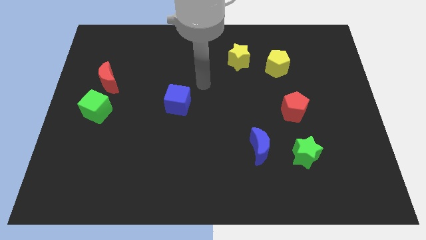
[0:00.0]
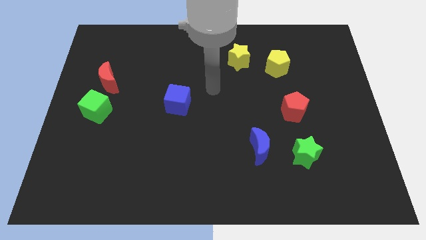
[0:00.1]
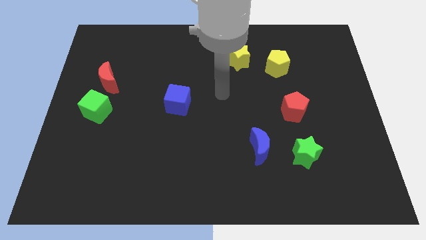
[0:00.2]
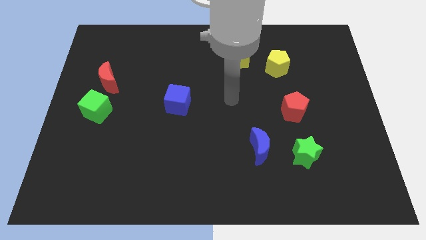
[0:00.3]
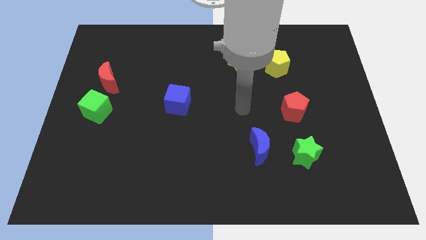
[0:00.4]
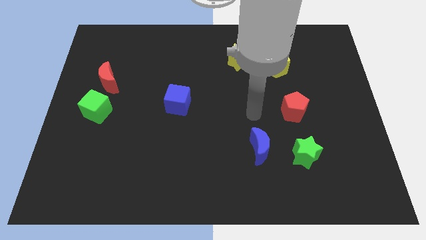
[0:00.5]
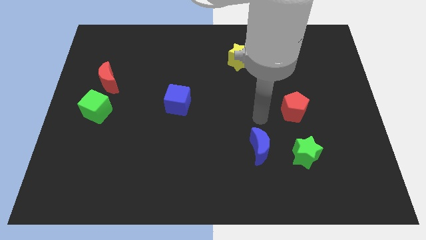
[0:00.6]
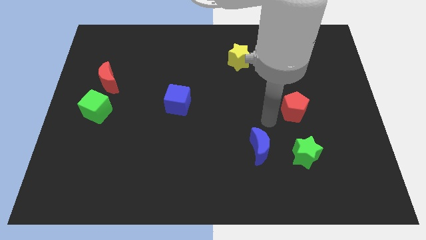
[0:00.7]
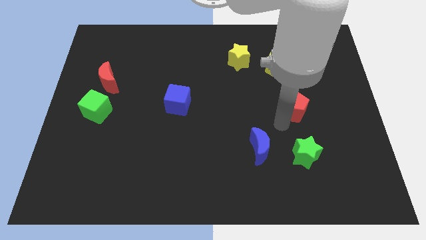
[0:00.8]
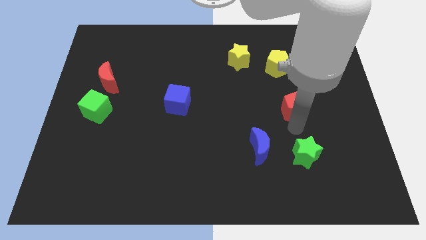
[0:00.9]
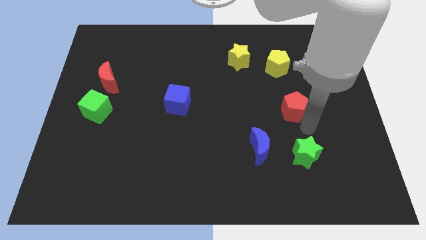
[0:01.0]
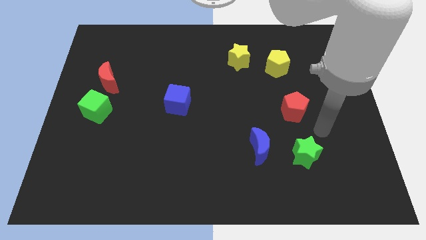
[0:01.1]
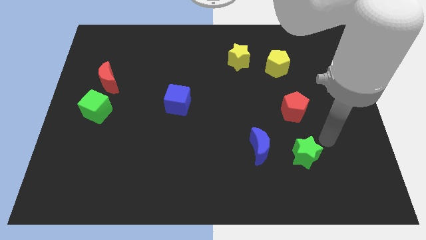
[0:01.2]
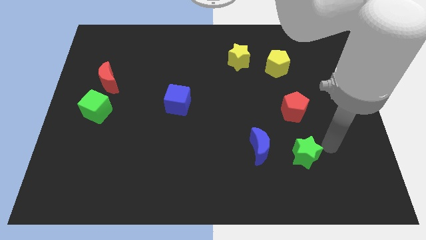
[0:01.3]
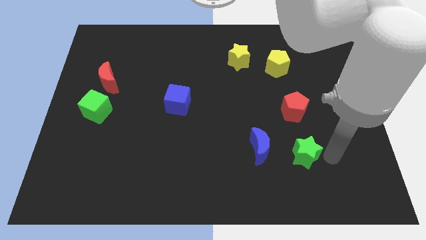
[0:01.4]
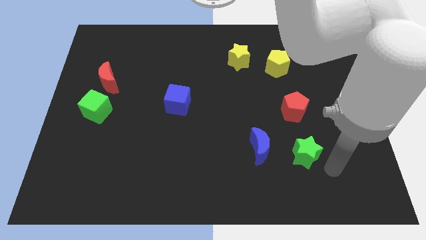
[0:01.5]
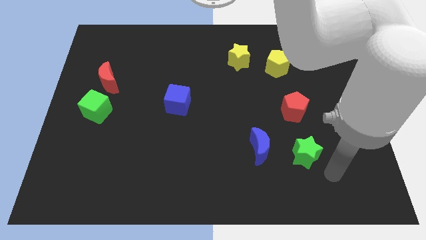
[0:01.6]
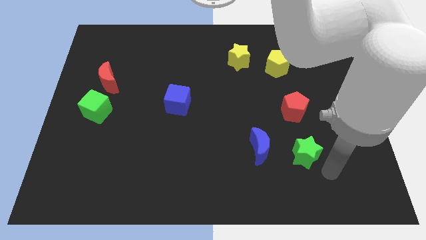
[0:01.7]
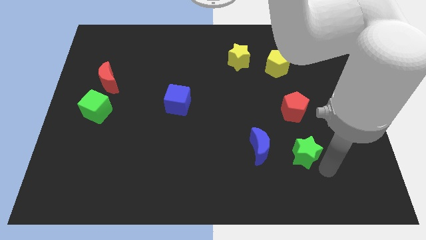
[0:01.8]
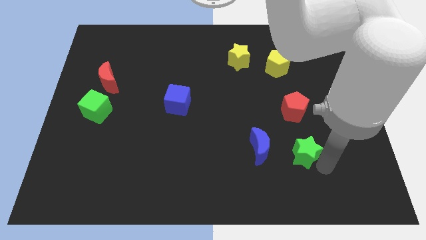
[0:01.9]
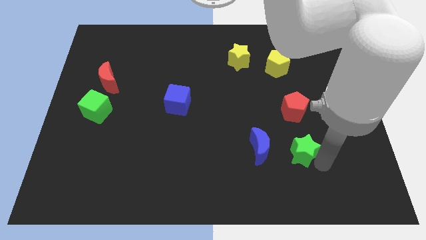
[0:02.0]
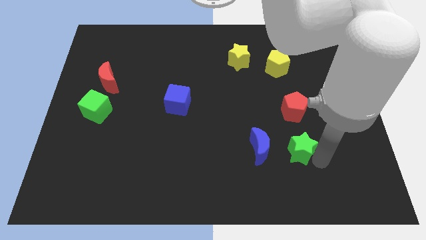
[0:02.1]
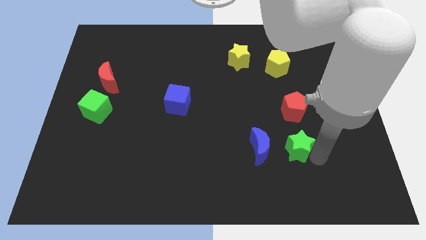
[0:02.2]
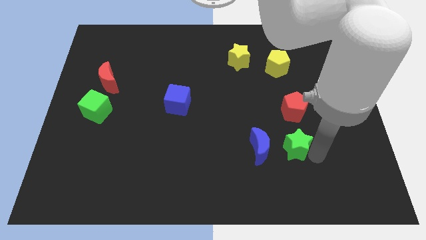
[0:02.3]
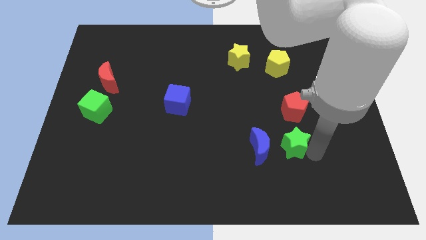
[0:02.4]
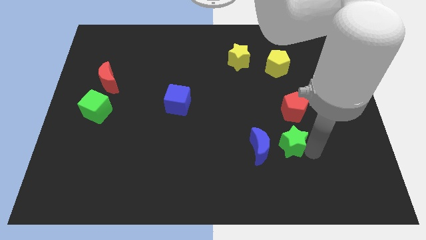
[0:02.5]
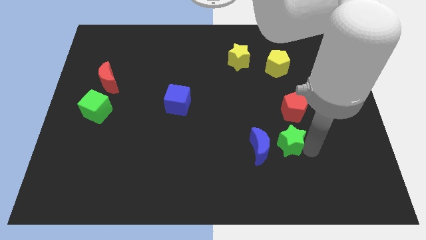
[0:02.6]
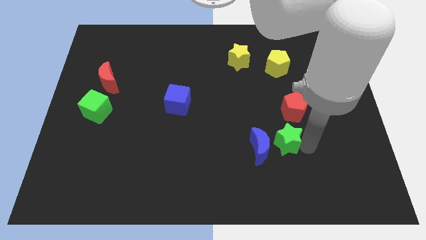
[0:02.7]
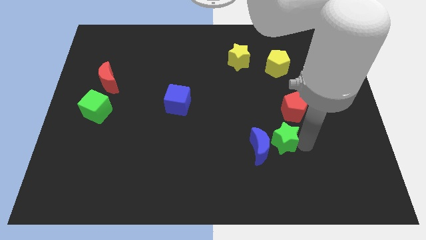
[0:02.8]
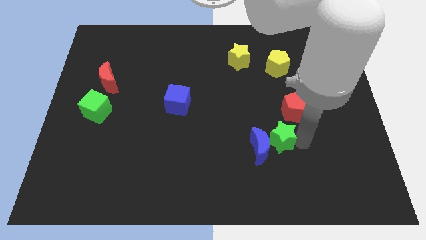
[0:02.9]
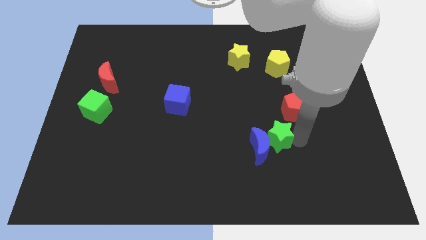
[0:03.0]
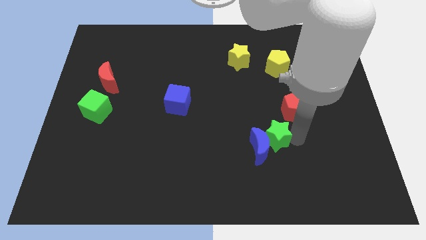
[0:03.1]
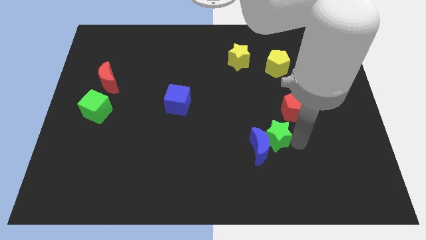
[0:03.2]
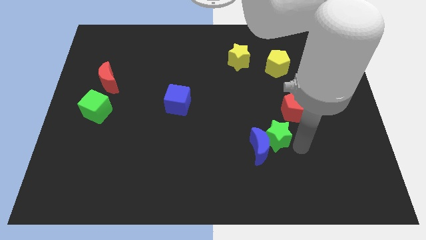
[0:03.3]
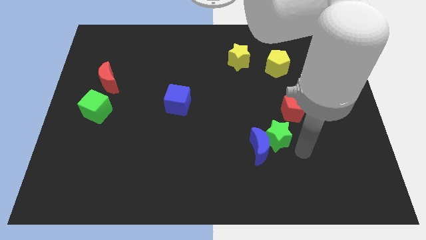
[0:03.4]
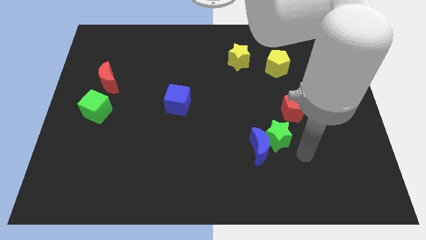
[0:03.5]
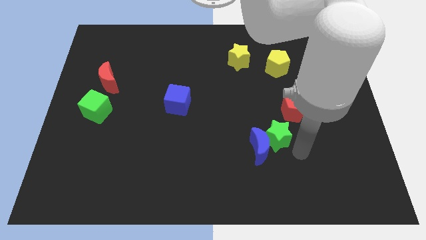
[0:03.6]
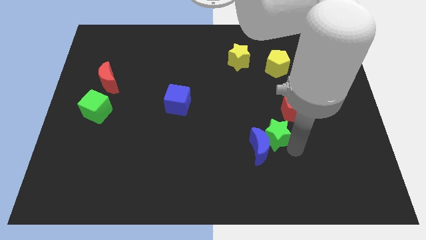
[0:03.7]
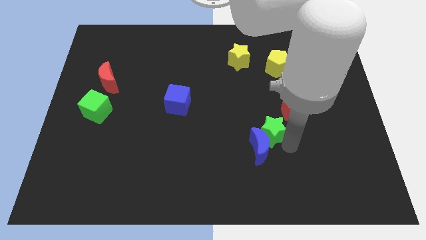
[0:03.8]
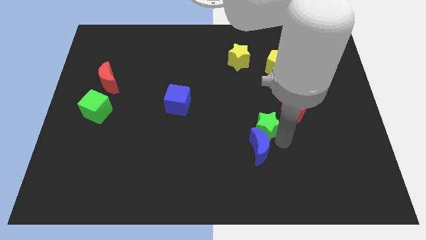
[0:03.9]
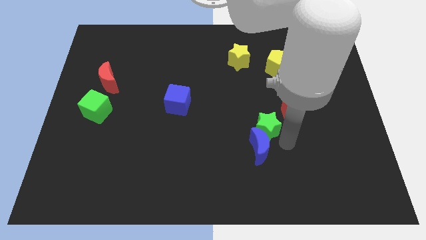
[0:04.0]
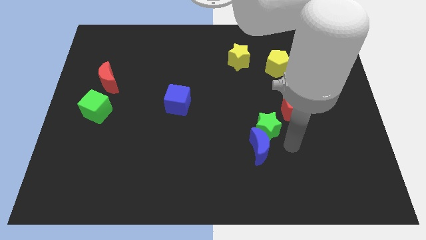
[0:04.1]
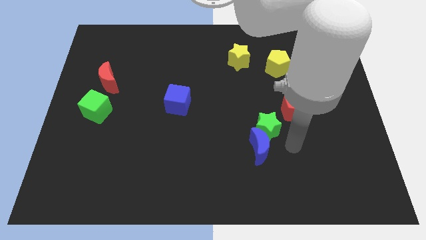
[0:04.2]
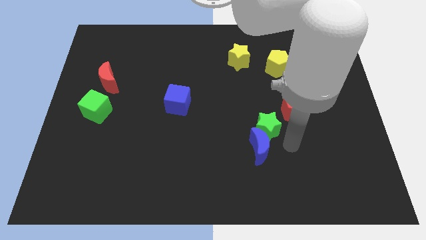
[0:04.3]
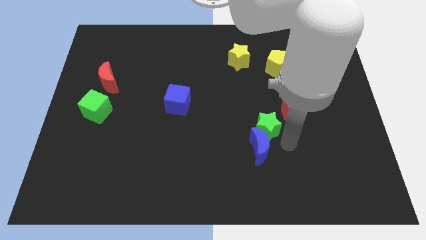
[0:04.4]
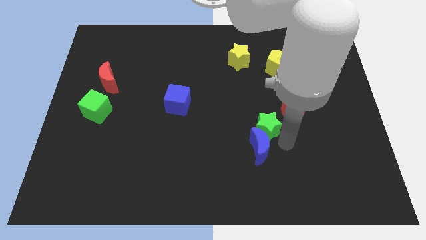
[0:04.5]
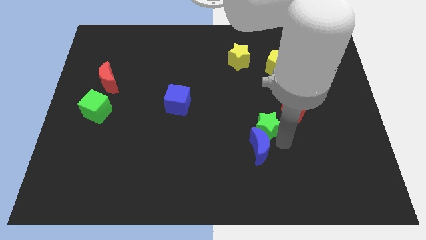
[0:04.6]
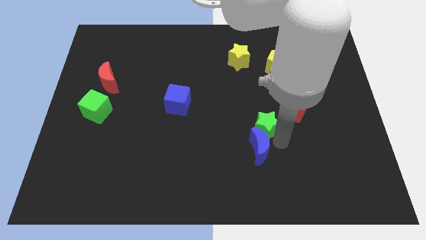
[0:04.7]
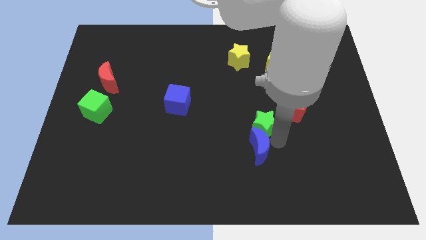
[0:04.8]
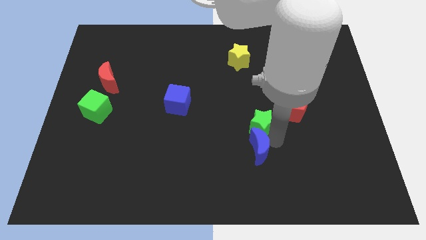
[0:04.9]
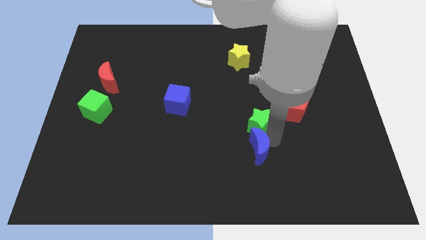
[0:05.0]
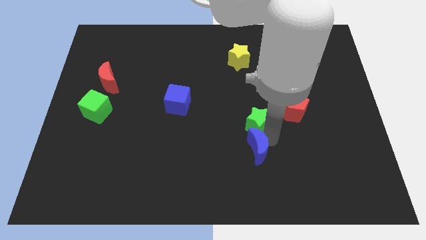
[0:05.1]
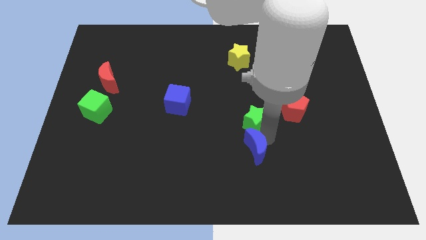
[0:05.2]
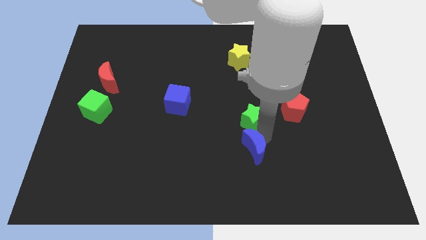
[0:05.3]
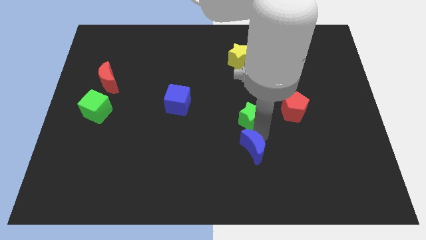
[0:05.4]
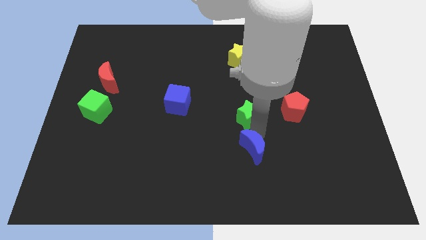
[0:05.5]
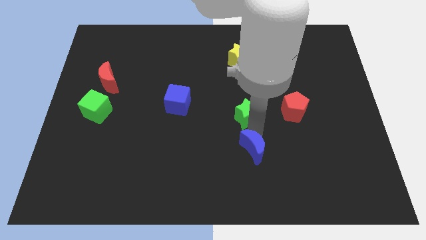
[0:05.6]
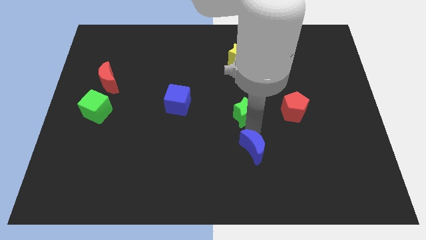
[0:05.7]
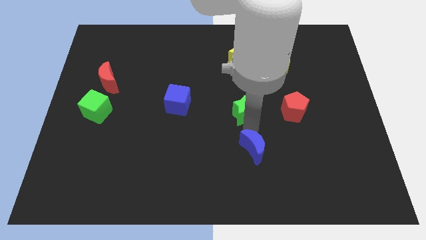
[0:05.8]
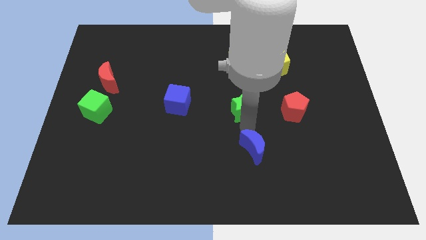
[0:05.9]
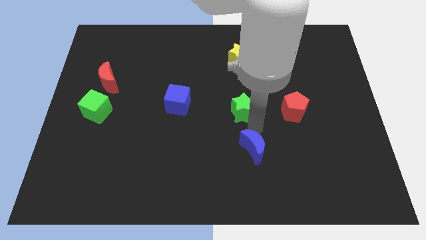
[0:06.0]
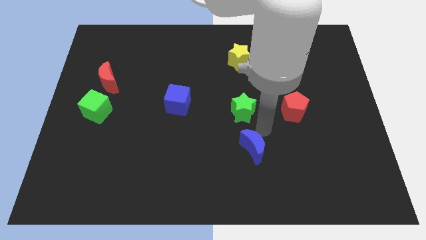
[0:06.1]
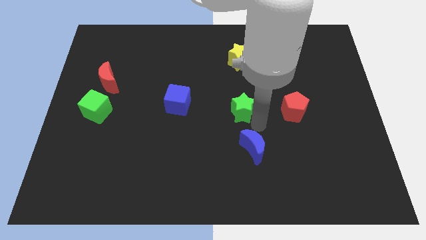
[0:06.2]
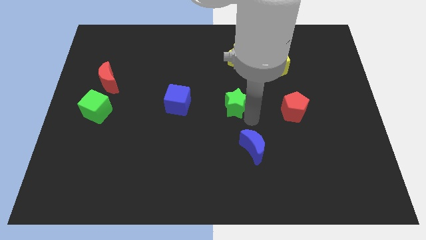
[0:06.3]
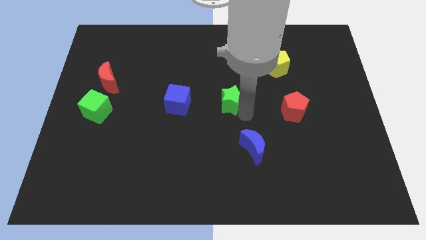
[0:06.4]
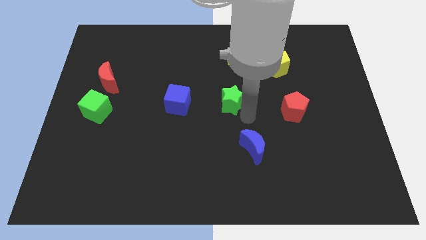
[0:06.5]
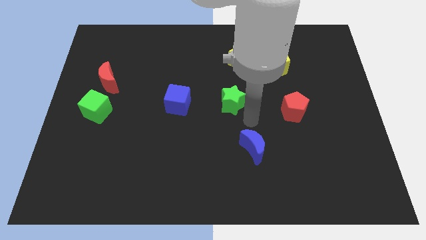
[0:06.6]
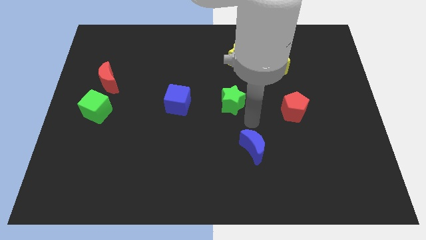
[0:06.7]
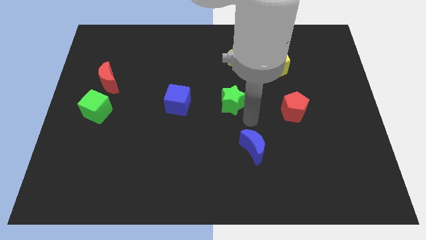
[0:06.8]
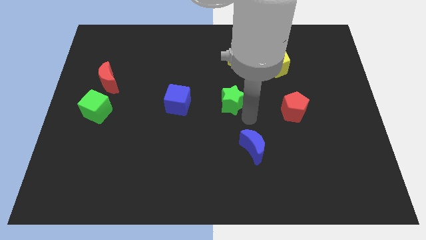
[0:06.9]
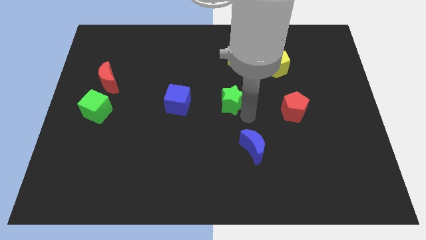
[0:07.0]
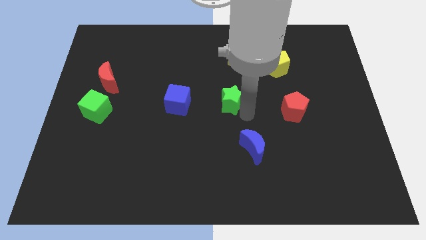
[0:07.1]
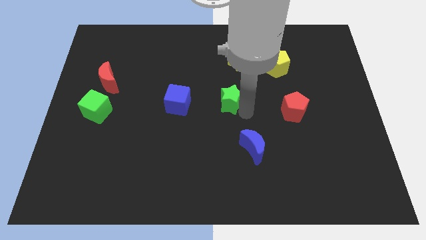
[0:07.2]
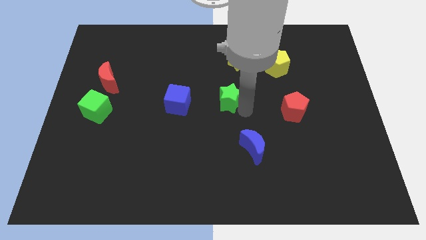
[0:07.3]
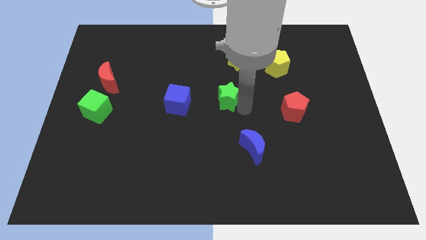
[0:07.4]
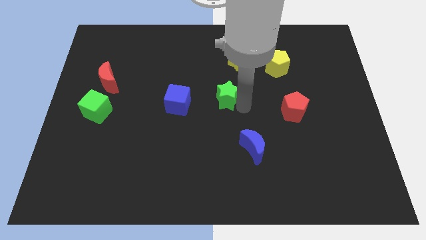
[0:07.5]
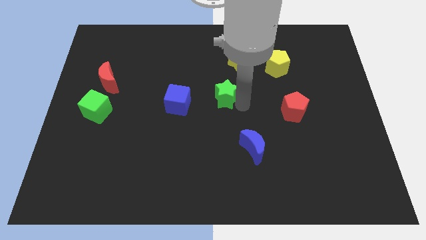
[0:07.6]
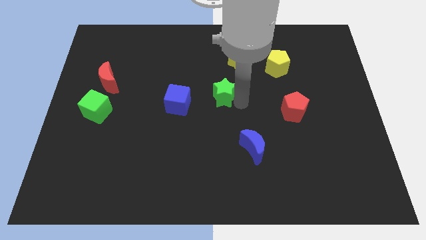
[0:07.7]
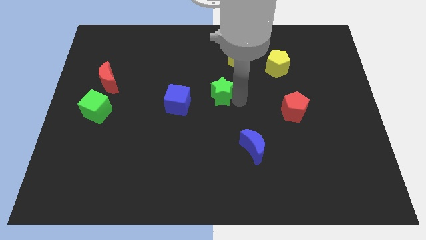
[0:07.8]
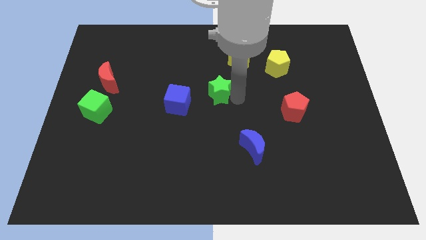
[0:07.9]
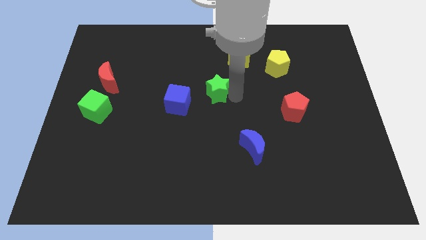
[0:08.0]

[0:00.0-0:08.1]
slide the green star to the top right of the blue cube
